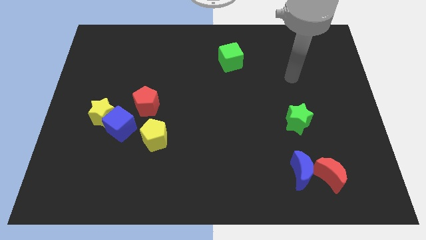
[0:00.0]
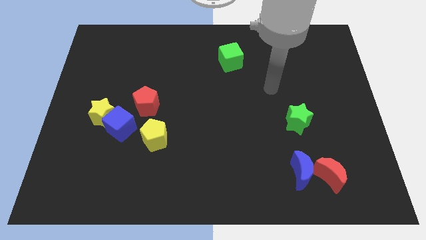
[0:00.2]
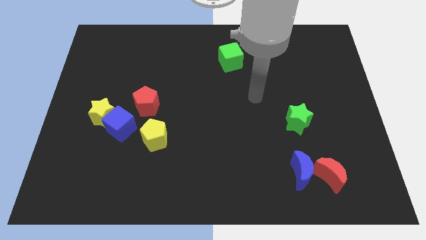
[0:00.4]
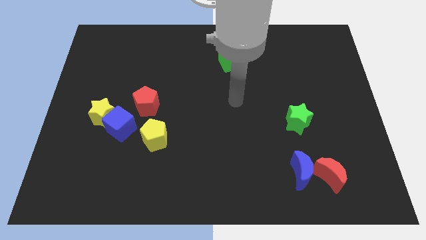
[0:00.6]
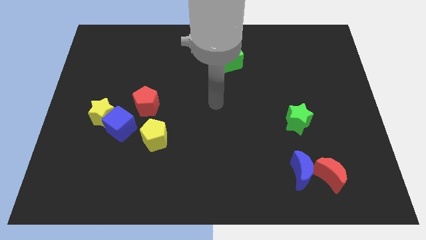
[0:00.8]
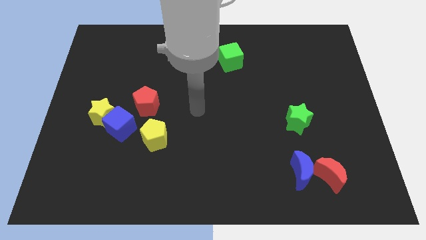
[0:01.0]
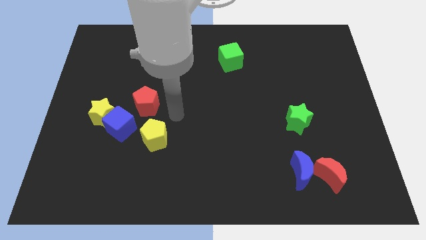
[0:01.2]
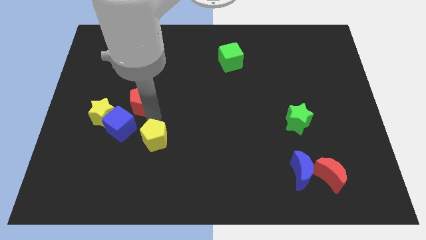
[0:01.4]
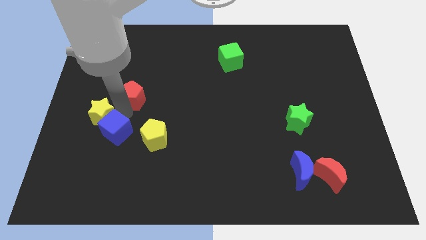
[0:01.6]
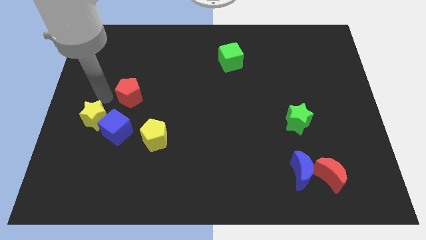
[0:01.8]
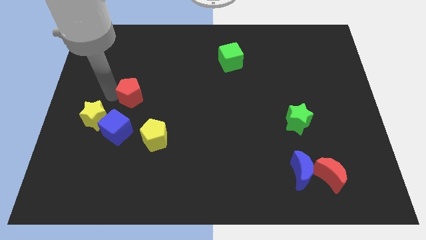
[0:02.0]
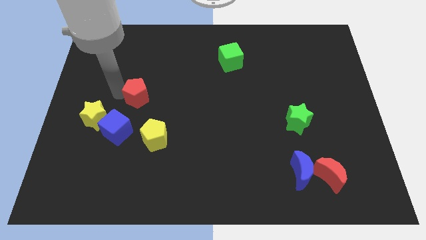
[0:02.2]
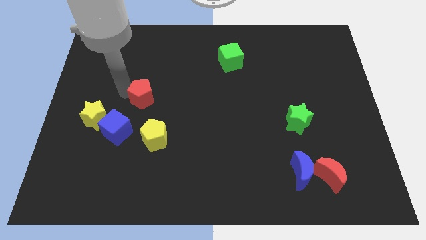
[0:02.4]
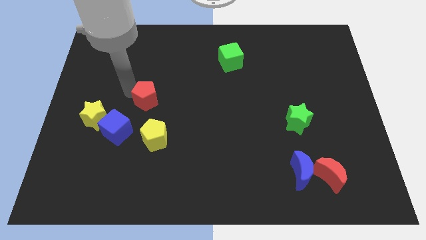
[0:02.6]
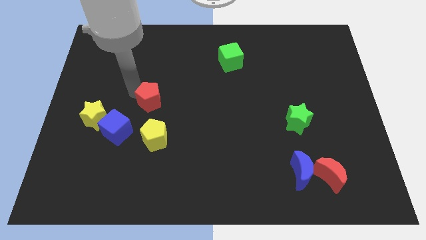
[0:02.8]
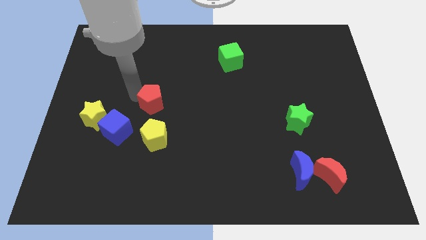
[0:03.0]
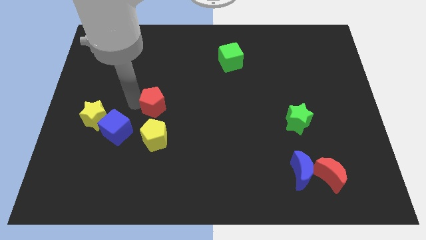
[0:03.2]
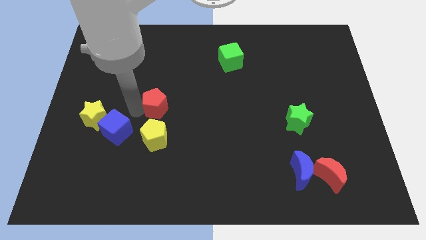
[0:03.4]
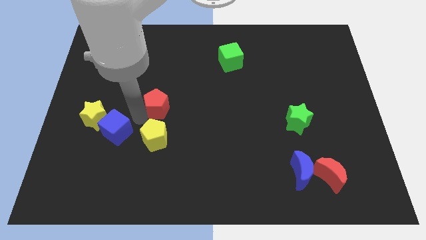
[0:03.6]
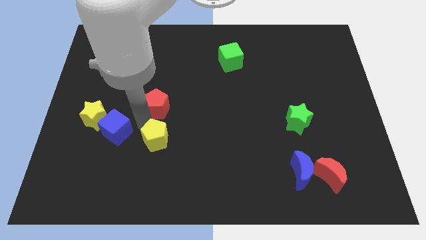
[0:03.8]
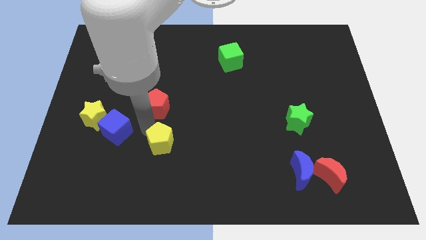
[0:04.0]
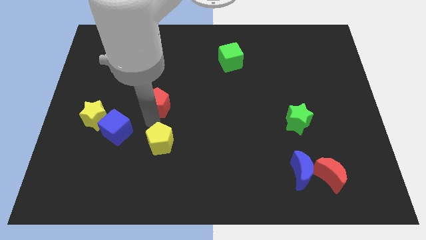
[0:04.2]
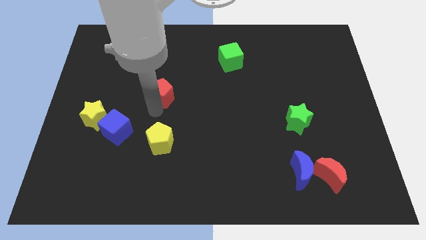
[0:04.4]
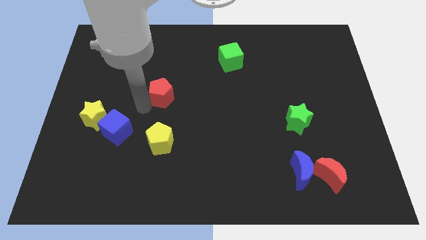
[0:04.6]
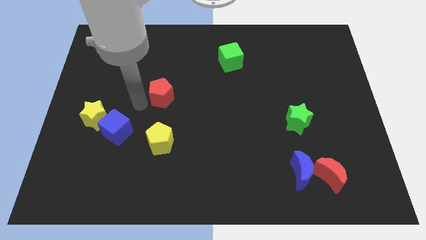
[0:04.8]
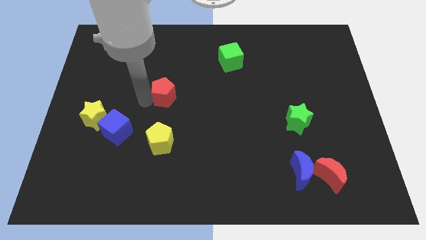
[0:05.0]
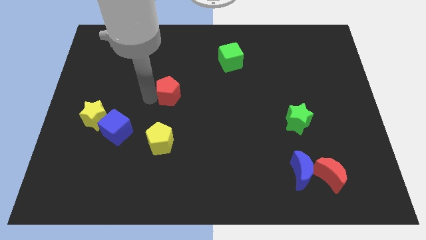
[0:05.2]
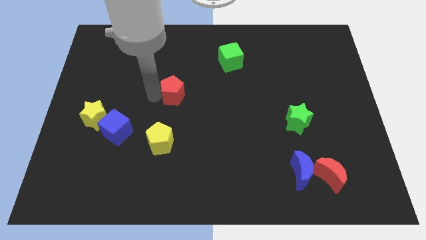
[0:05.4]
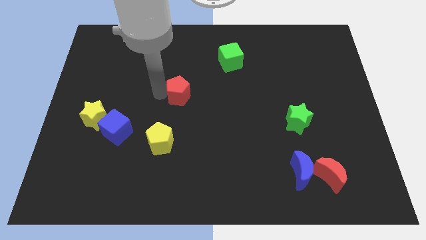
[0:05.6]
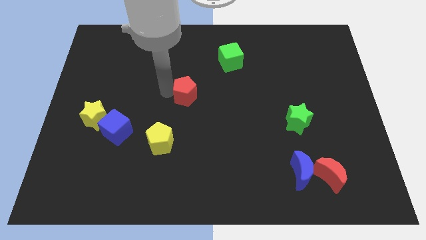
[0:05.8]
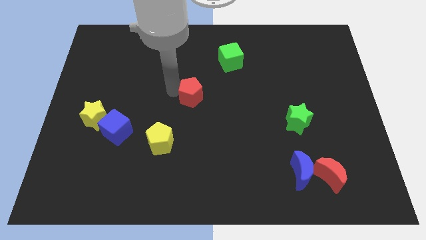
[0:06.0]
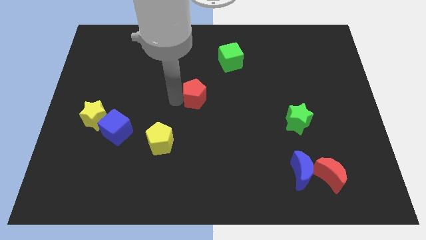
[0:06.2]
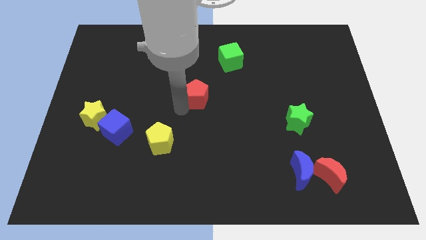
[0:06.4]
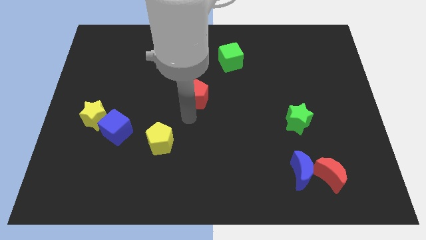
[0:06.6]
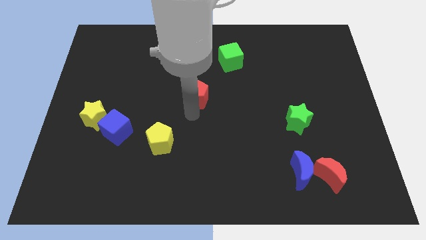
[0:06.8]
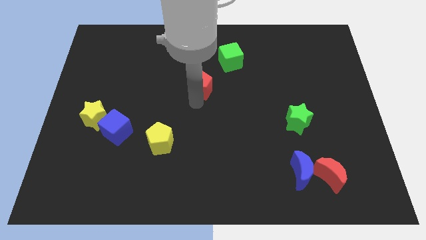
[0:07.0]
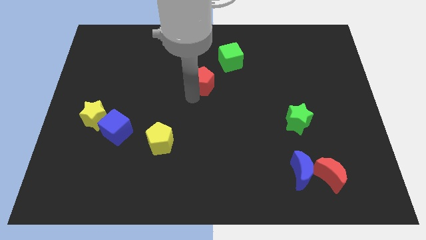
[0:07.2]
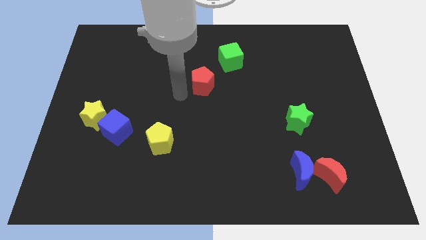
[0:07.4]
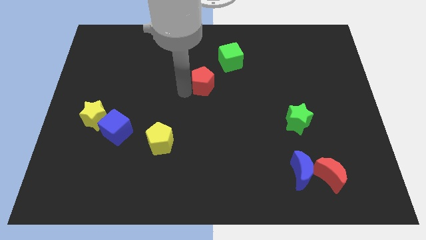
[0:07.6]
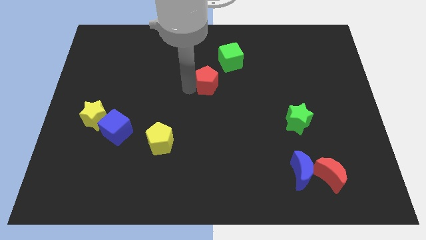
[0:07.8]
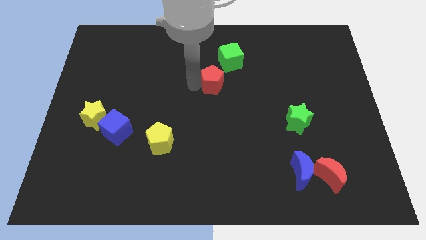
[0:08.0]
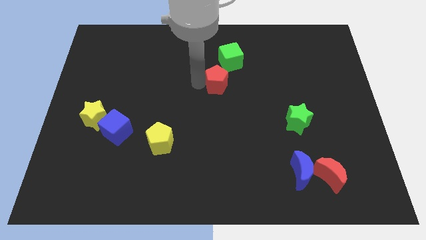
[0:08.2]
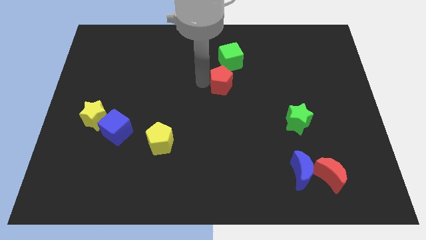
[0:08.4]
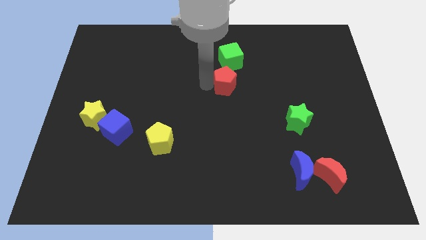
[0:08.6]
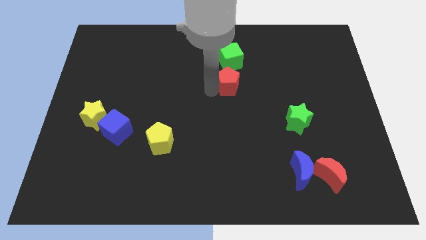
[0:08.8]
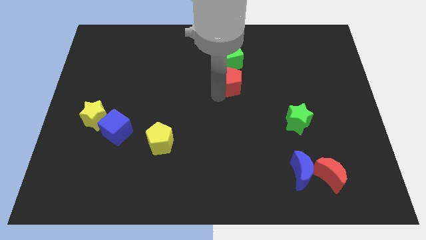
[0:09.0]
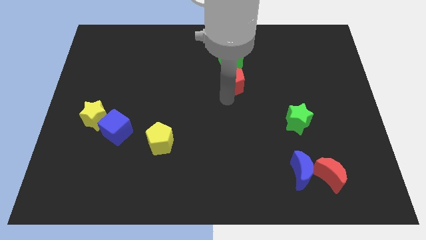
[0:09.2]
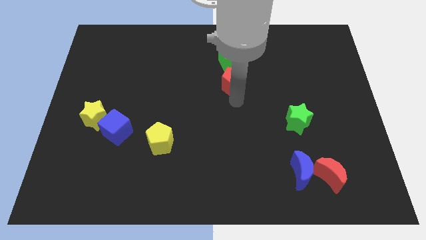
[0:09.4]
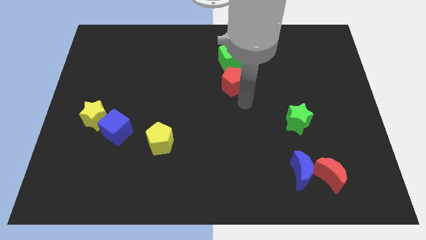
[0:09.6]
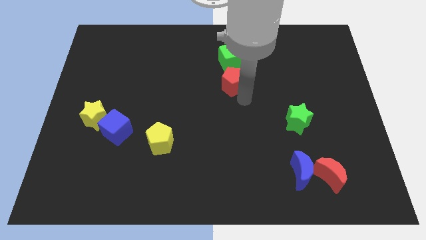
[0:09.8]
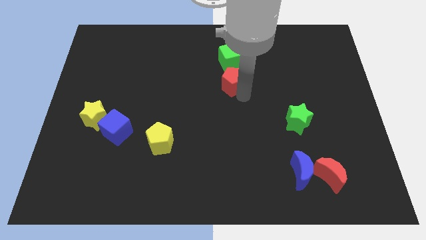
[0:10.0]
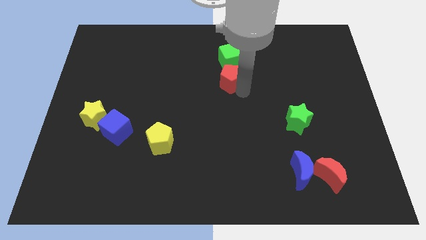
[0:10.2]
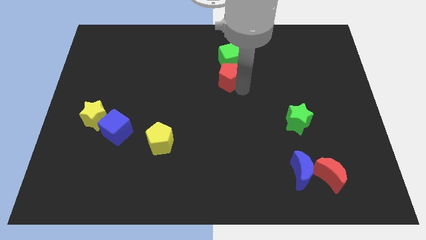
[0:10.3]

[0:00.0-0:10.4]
move the red pentagon to the bottom right side of the green cube

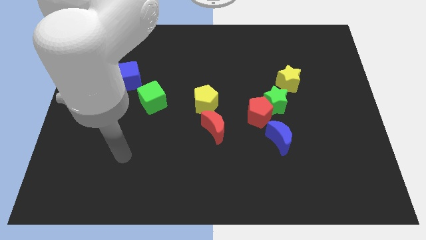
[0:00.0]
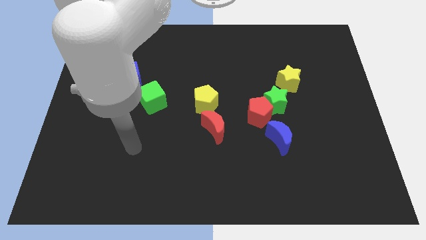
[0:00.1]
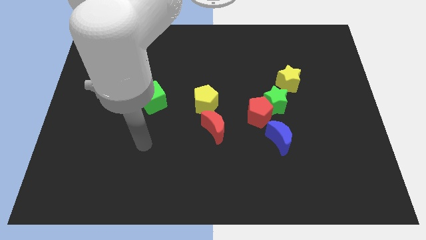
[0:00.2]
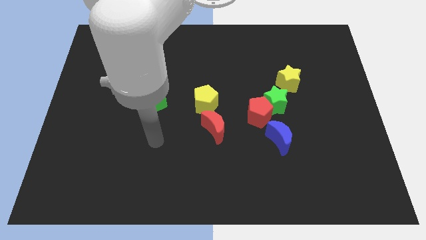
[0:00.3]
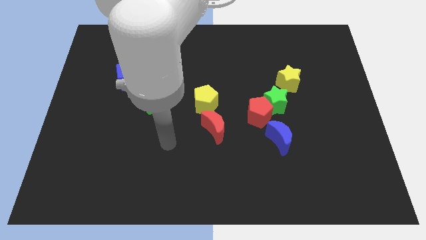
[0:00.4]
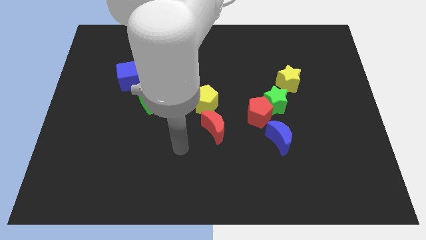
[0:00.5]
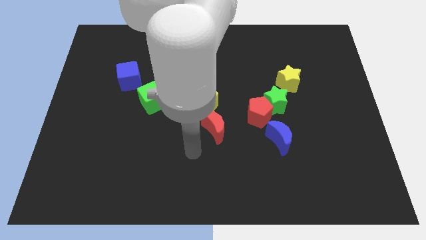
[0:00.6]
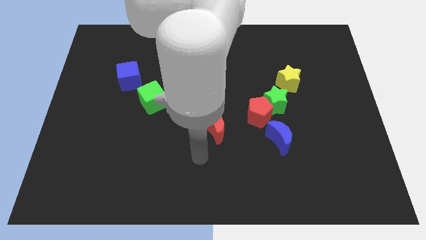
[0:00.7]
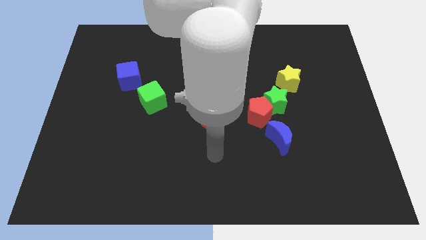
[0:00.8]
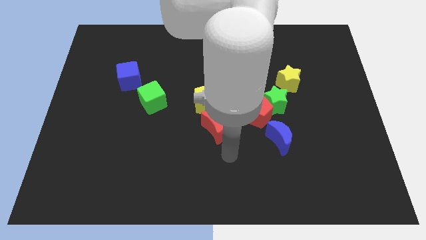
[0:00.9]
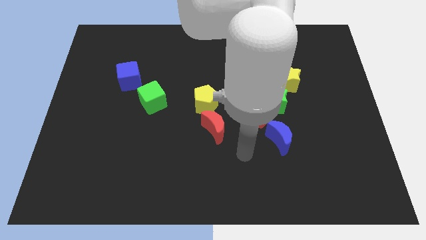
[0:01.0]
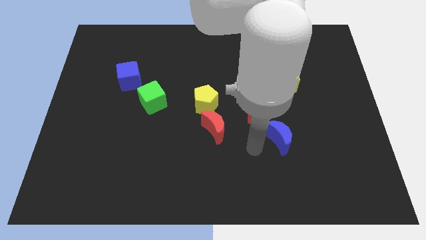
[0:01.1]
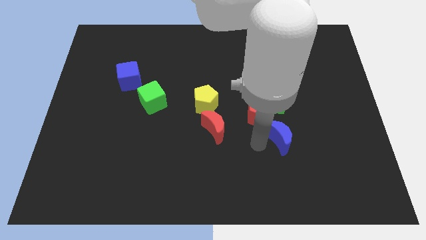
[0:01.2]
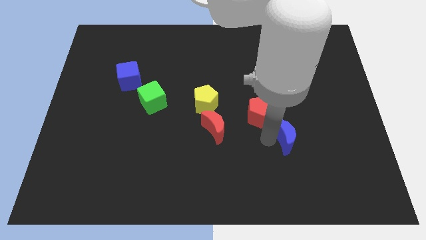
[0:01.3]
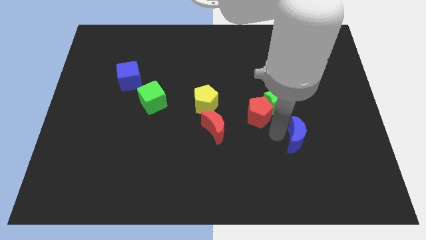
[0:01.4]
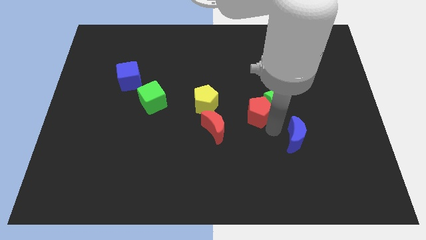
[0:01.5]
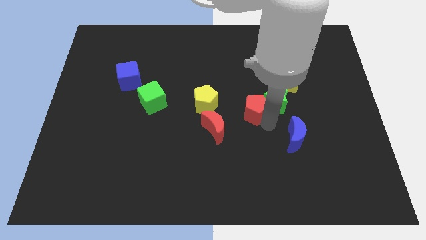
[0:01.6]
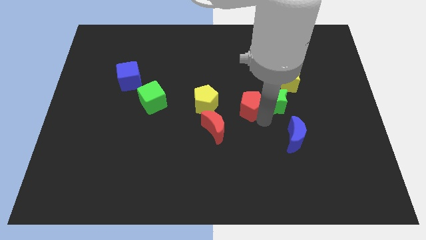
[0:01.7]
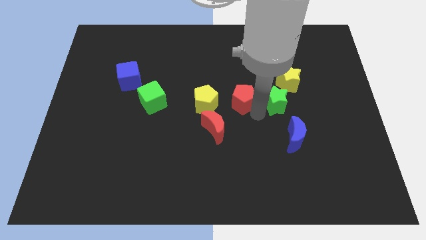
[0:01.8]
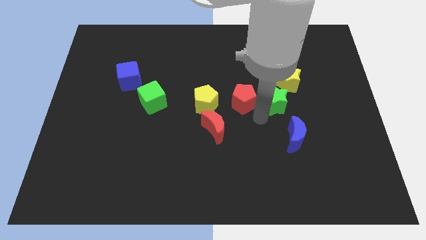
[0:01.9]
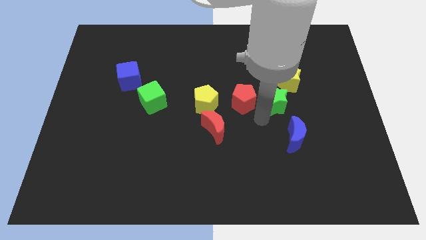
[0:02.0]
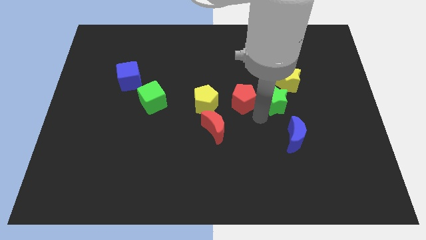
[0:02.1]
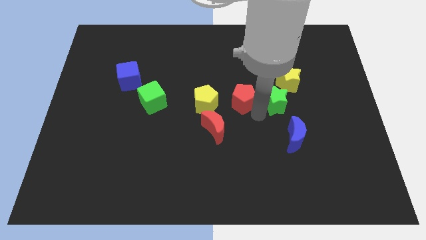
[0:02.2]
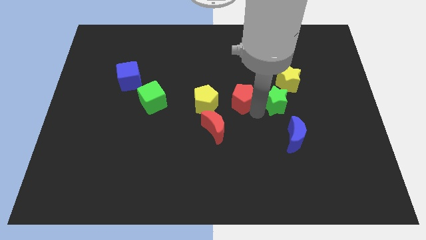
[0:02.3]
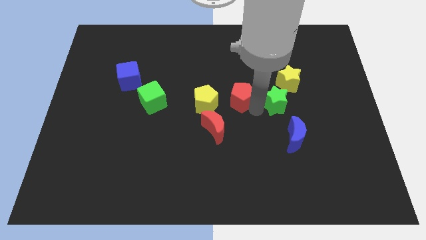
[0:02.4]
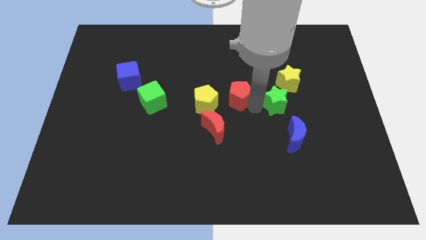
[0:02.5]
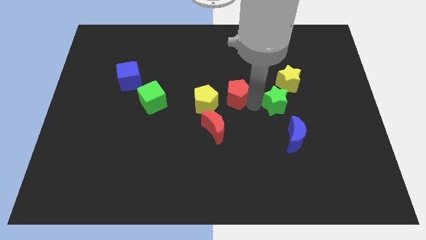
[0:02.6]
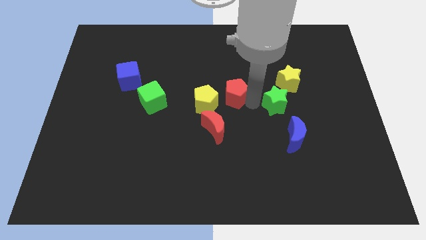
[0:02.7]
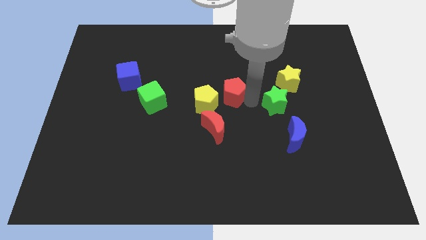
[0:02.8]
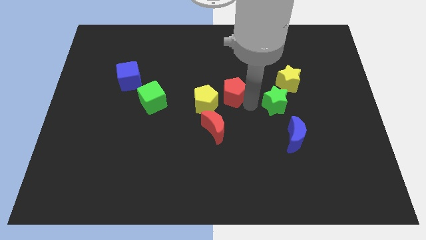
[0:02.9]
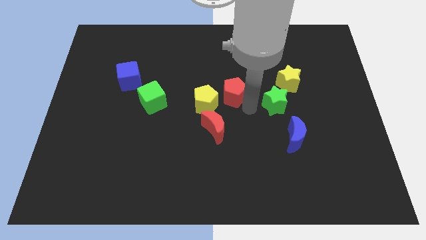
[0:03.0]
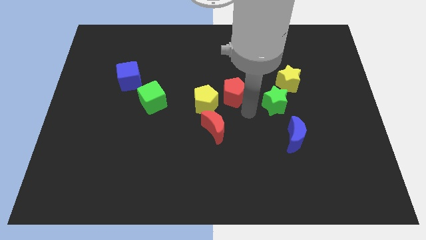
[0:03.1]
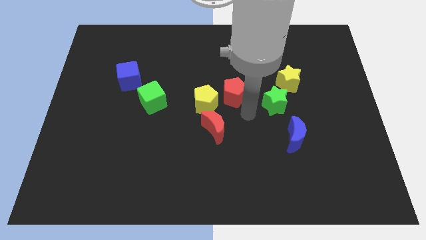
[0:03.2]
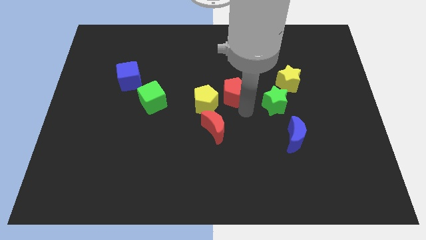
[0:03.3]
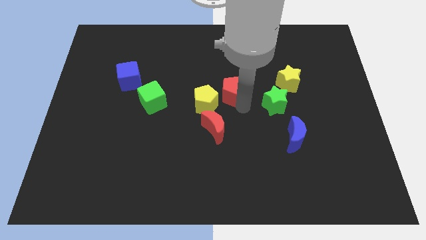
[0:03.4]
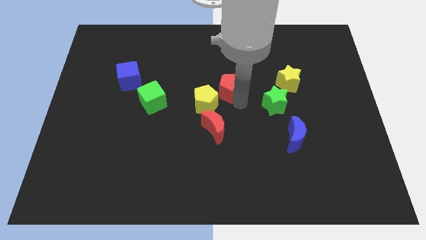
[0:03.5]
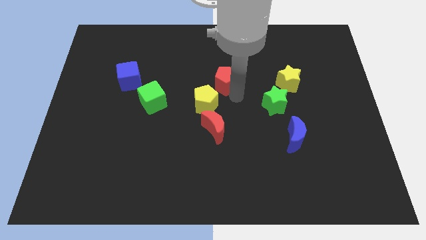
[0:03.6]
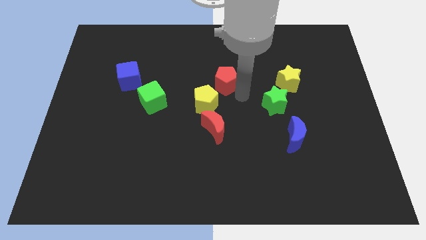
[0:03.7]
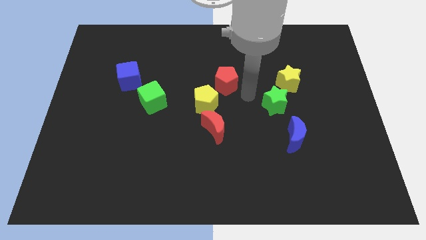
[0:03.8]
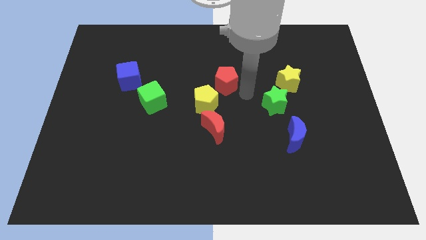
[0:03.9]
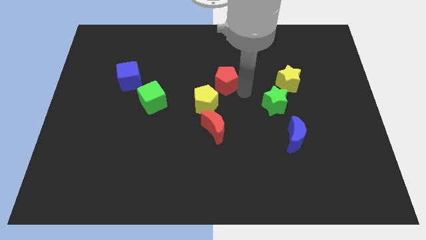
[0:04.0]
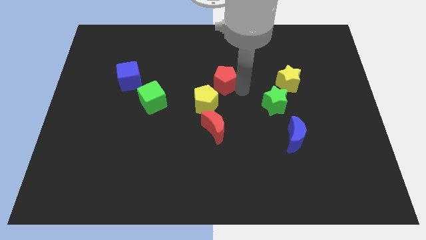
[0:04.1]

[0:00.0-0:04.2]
move the red pentagon to the top of the yellow pentagon
